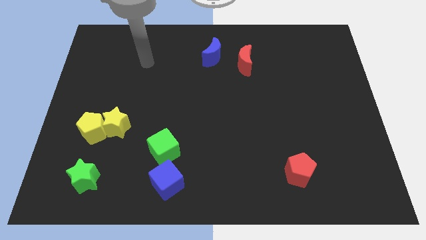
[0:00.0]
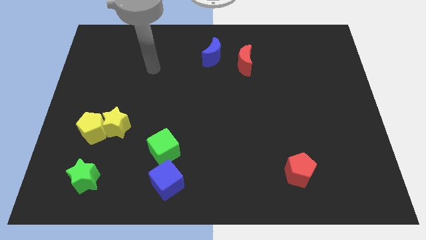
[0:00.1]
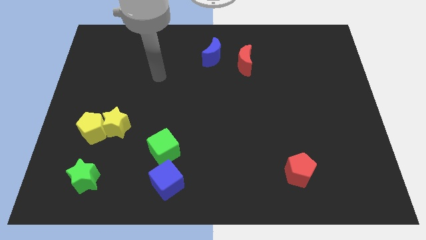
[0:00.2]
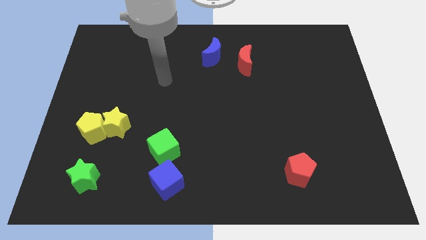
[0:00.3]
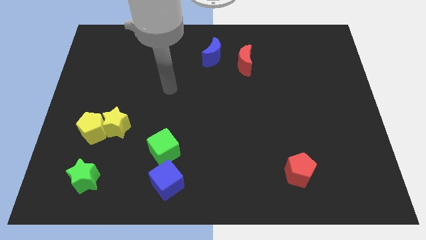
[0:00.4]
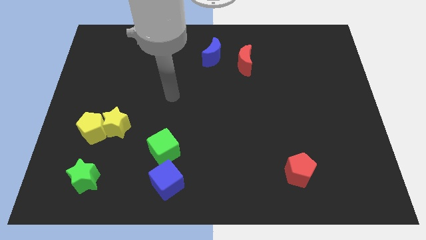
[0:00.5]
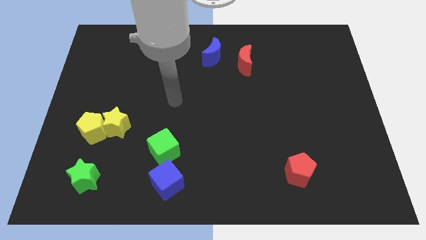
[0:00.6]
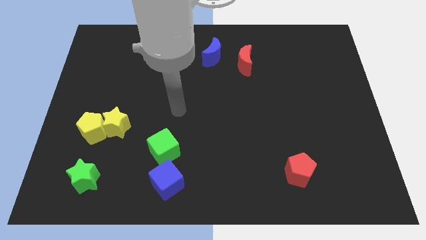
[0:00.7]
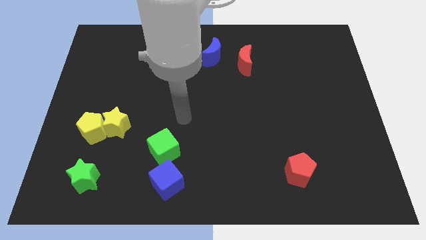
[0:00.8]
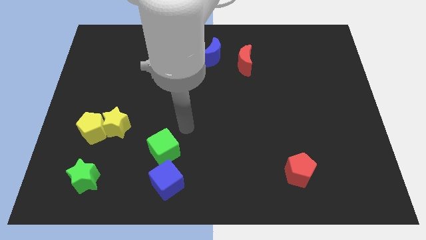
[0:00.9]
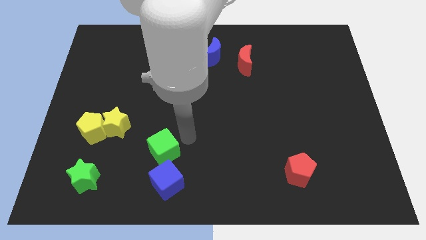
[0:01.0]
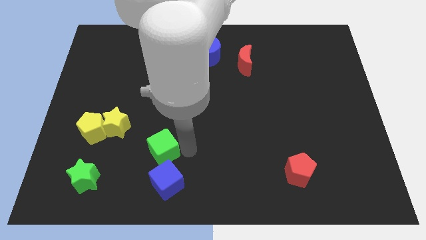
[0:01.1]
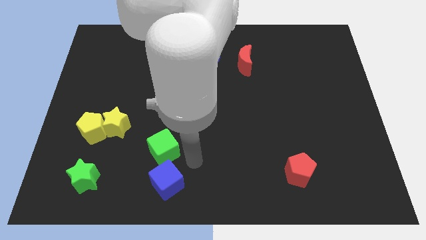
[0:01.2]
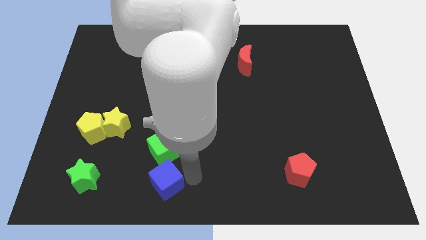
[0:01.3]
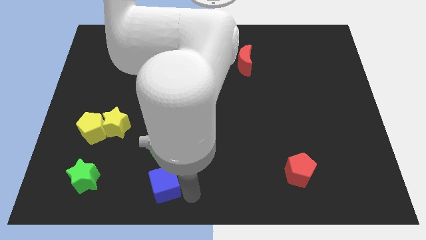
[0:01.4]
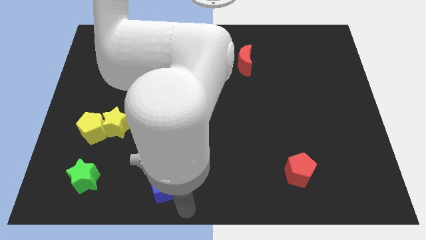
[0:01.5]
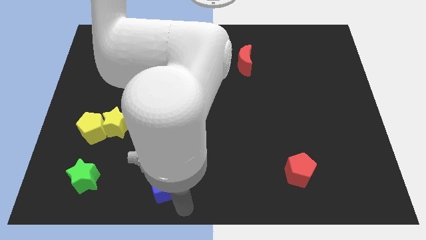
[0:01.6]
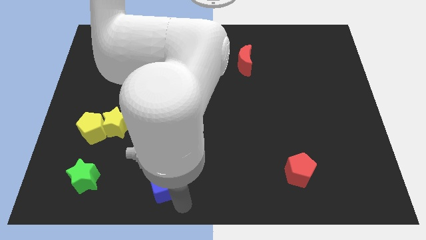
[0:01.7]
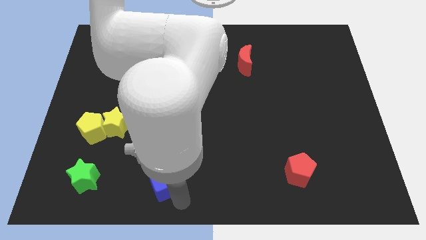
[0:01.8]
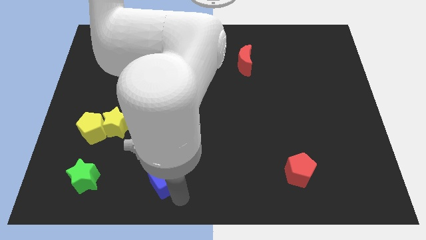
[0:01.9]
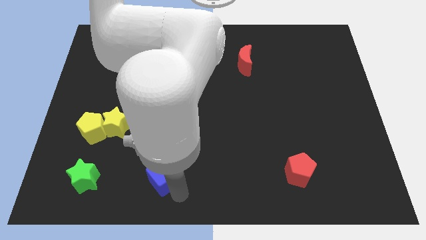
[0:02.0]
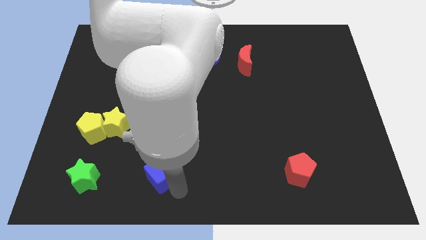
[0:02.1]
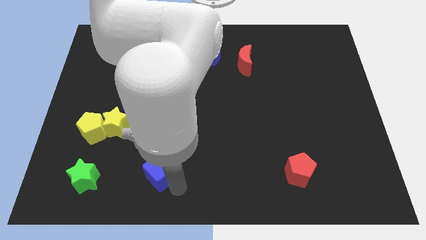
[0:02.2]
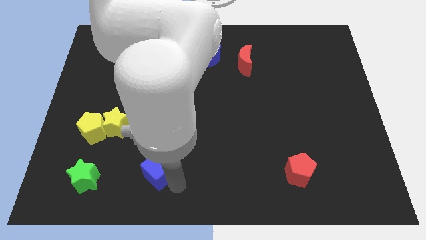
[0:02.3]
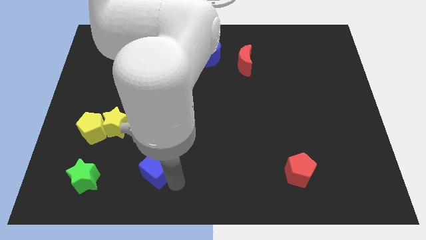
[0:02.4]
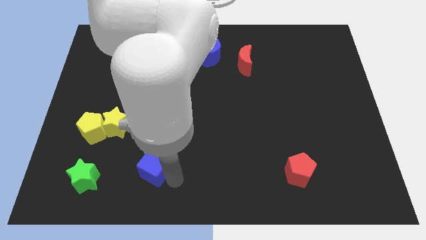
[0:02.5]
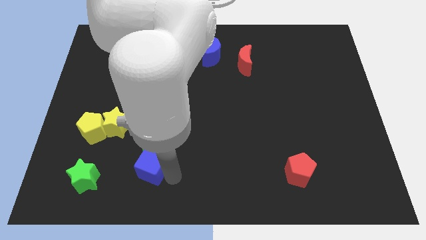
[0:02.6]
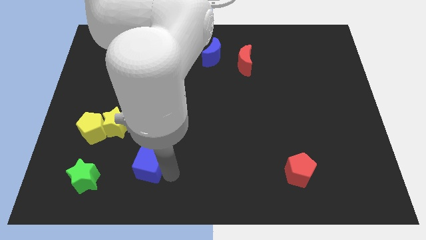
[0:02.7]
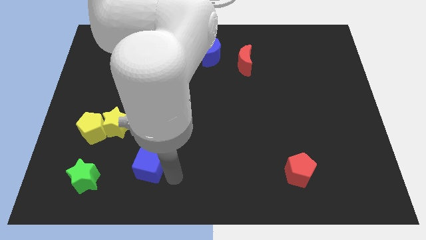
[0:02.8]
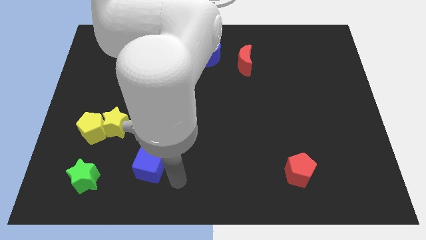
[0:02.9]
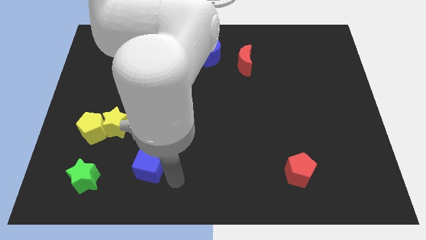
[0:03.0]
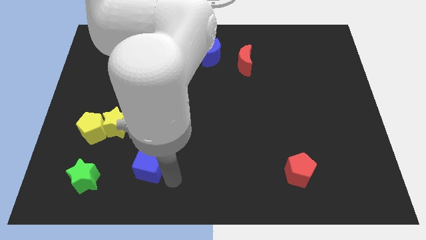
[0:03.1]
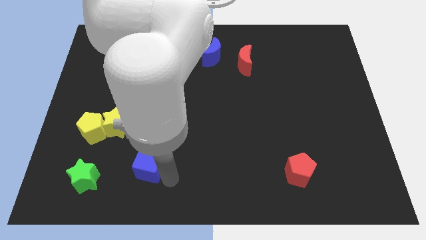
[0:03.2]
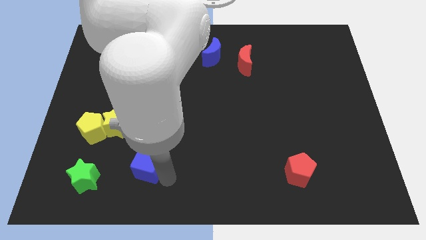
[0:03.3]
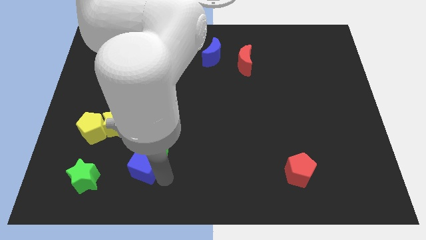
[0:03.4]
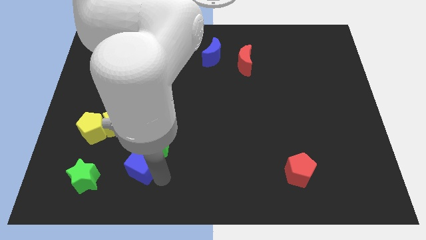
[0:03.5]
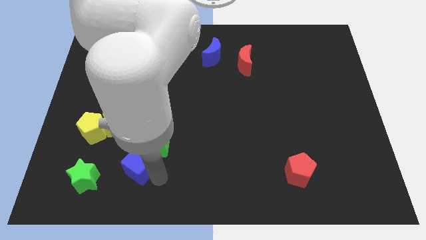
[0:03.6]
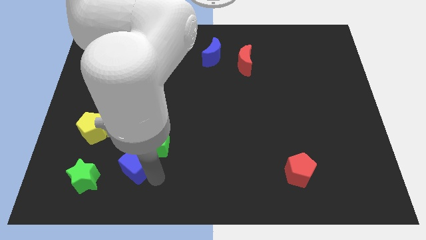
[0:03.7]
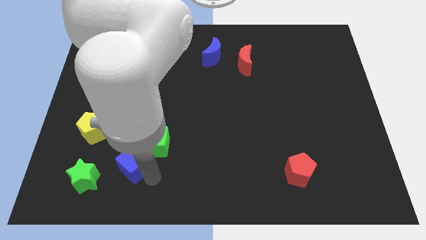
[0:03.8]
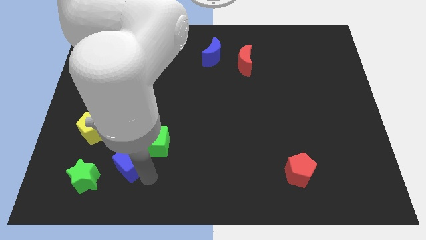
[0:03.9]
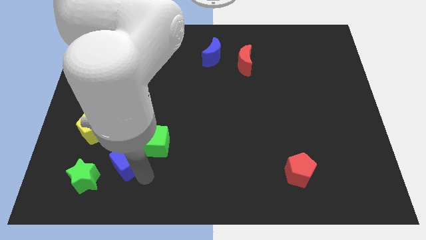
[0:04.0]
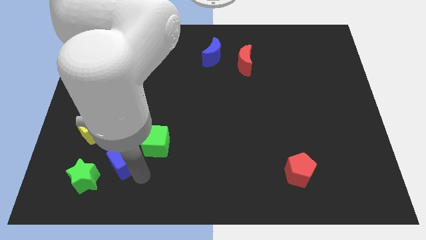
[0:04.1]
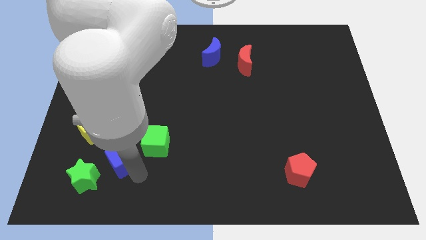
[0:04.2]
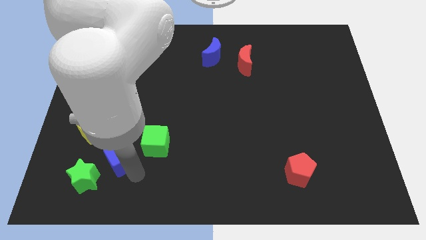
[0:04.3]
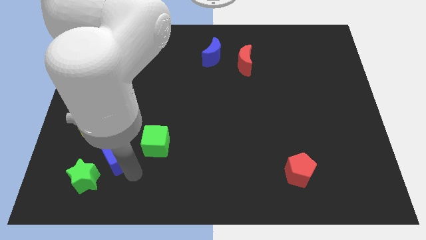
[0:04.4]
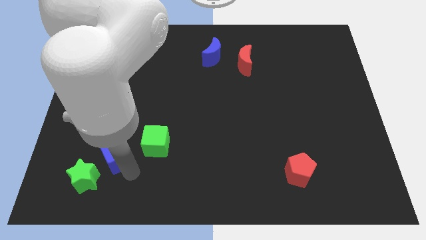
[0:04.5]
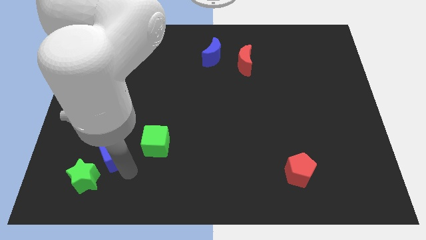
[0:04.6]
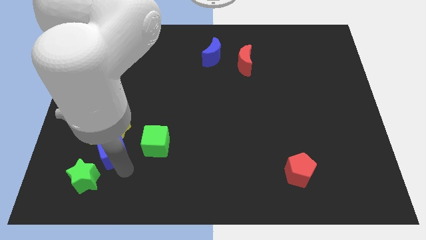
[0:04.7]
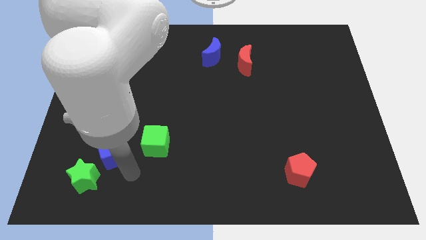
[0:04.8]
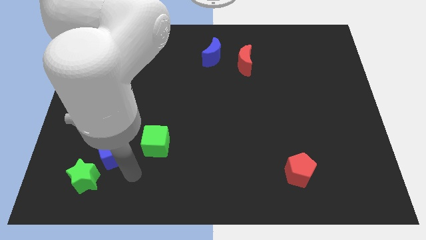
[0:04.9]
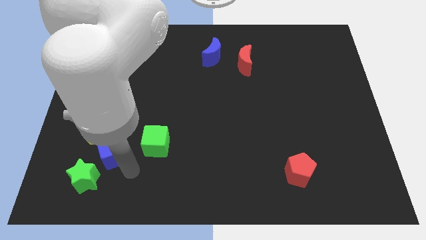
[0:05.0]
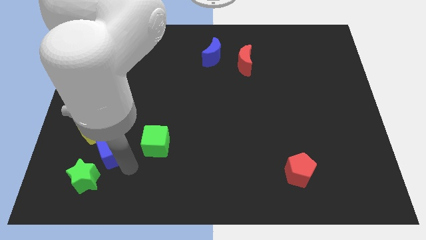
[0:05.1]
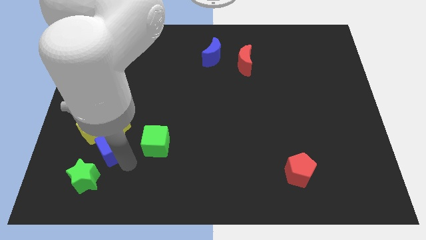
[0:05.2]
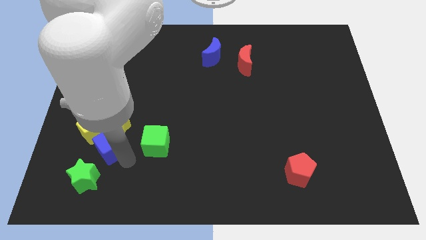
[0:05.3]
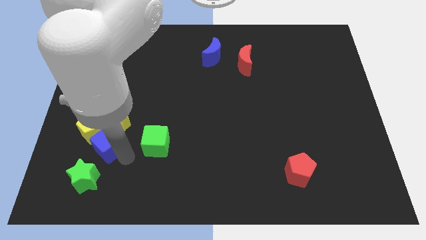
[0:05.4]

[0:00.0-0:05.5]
move the blue cube close to the yellow pentagon
